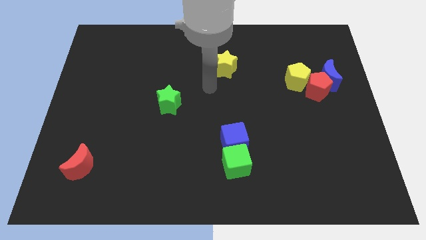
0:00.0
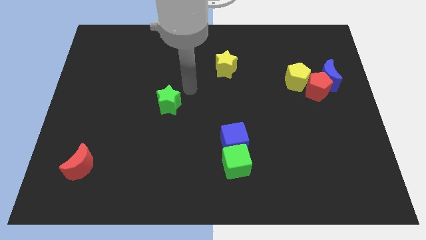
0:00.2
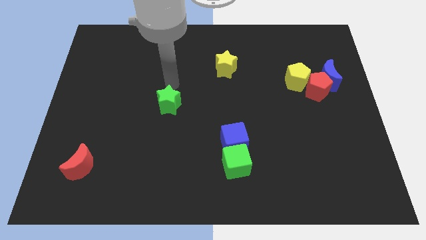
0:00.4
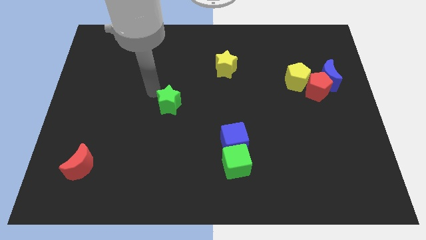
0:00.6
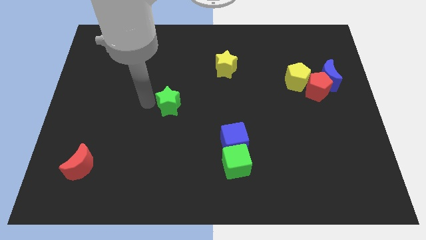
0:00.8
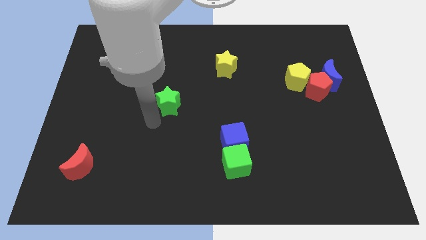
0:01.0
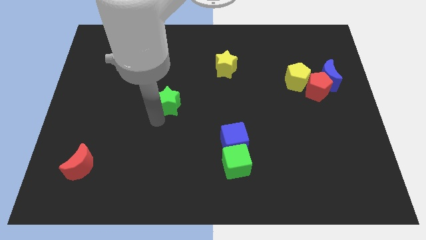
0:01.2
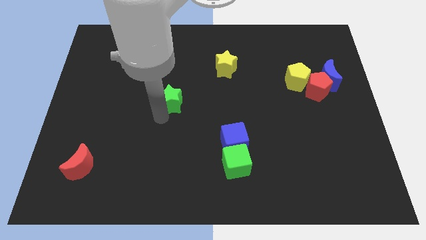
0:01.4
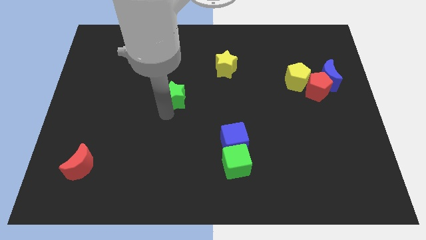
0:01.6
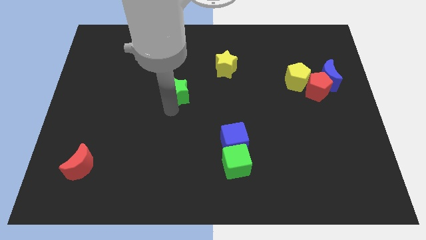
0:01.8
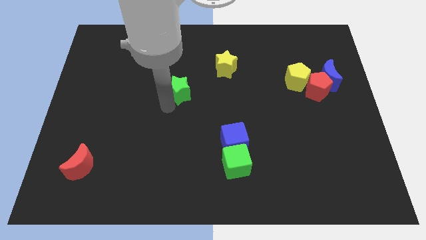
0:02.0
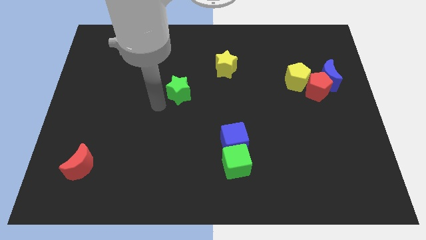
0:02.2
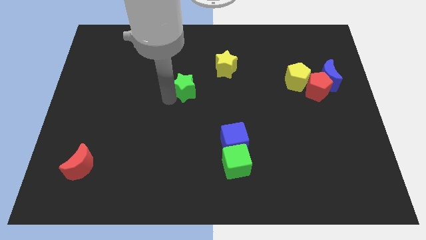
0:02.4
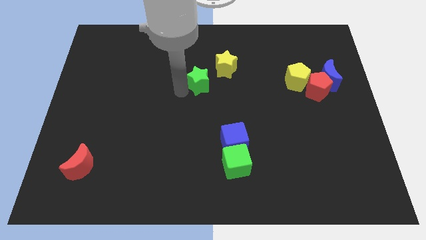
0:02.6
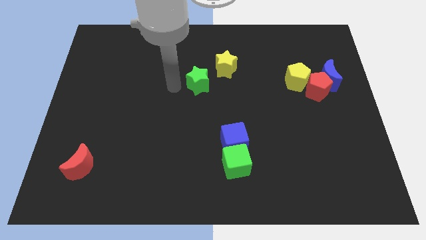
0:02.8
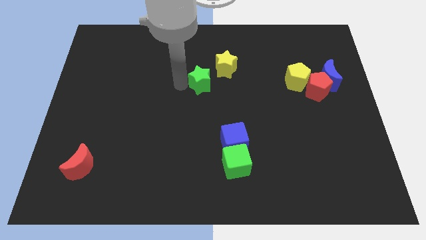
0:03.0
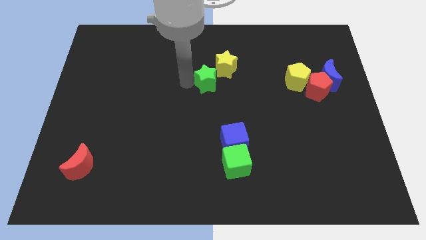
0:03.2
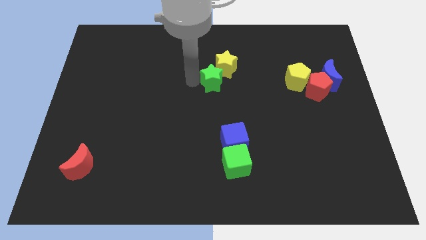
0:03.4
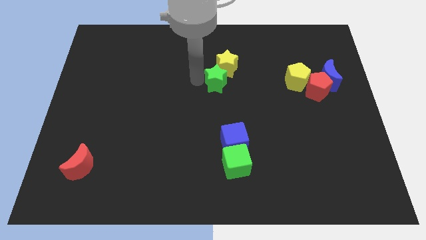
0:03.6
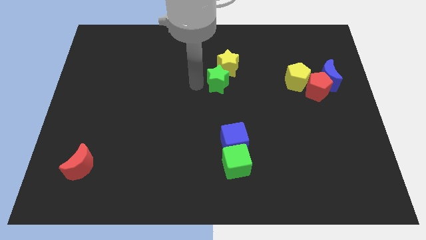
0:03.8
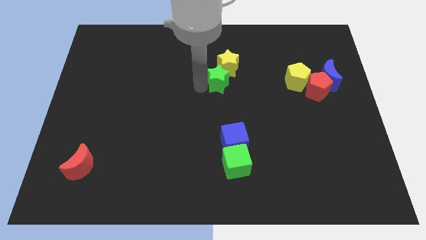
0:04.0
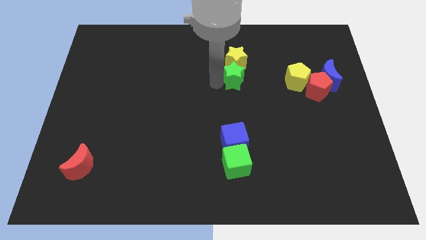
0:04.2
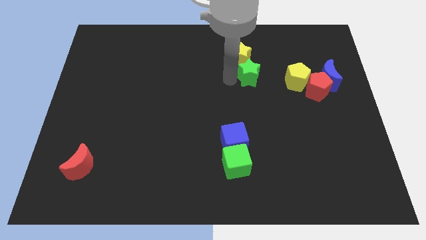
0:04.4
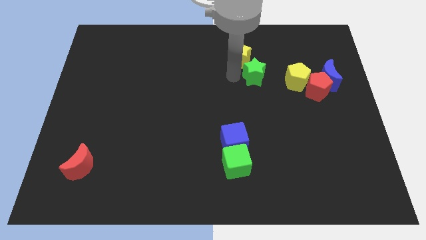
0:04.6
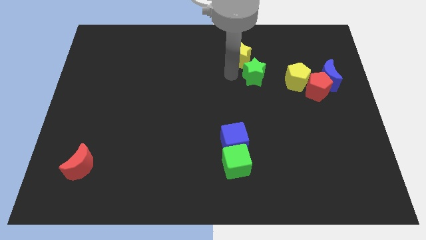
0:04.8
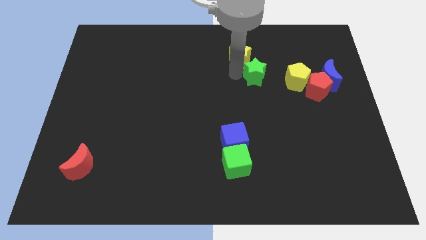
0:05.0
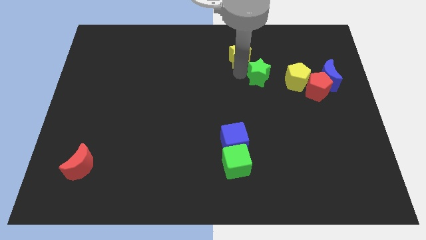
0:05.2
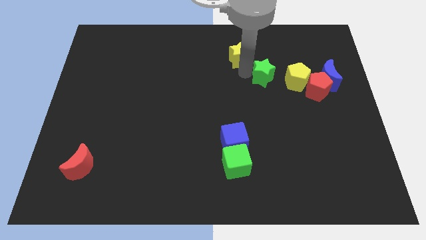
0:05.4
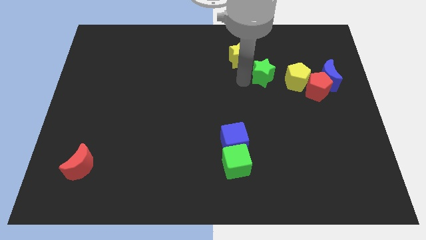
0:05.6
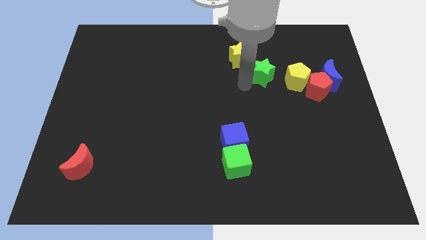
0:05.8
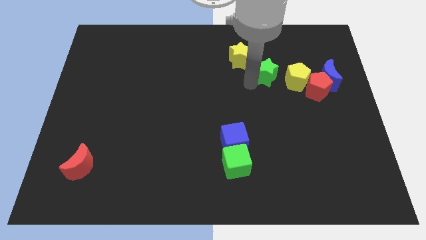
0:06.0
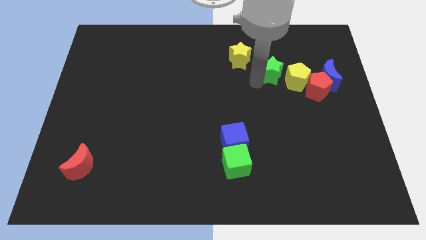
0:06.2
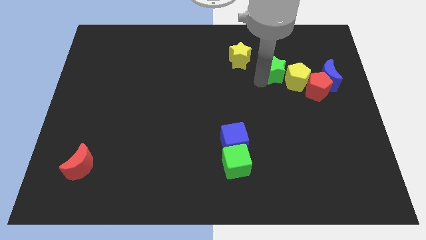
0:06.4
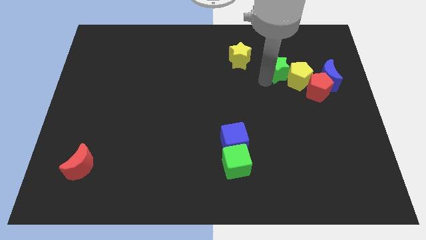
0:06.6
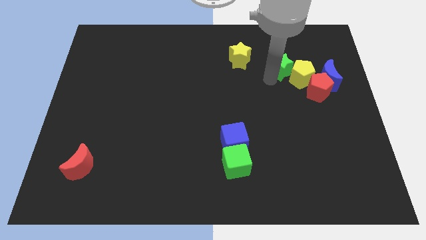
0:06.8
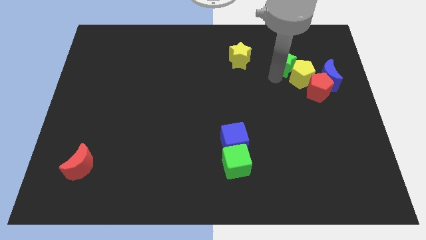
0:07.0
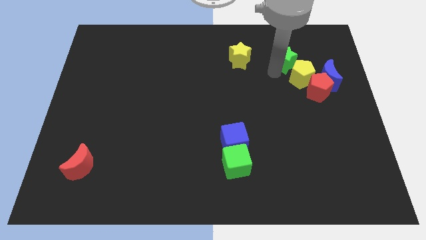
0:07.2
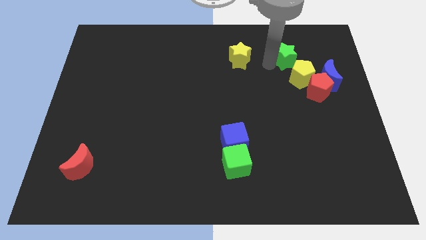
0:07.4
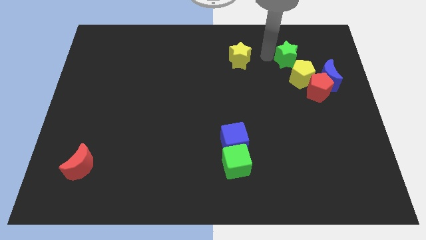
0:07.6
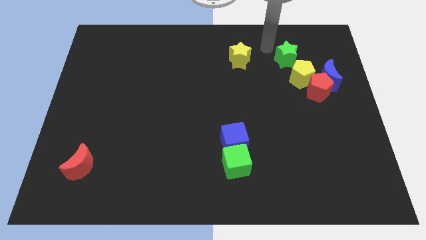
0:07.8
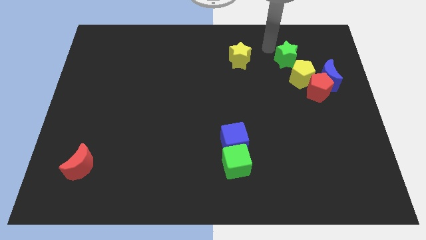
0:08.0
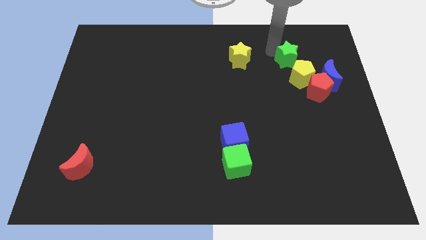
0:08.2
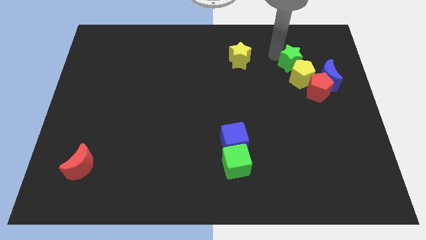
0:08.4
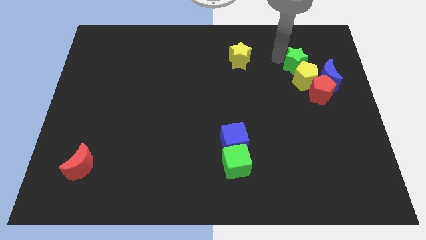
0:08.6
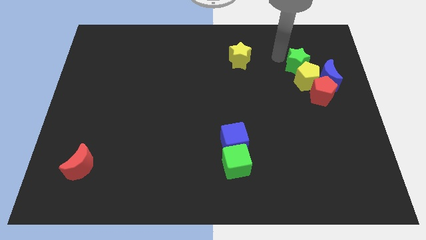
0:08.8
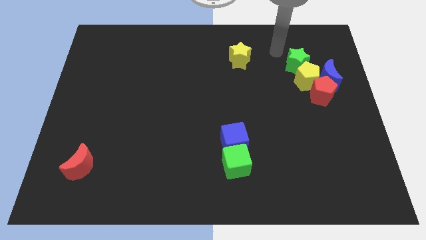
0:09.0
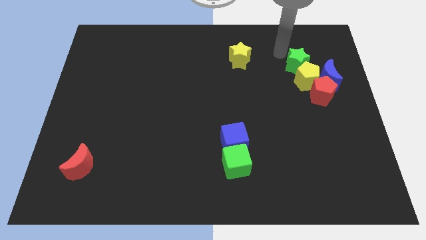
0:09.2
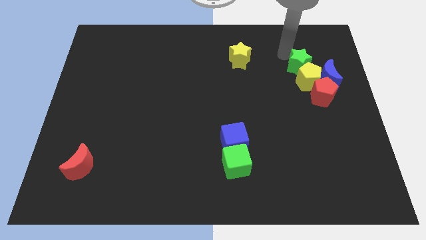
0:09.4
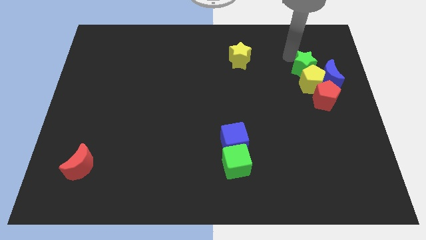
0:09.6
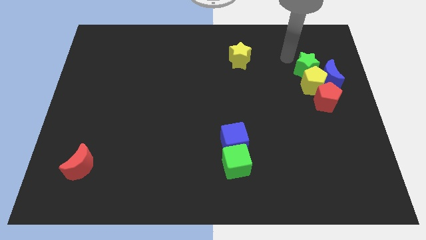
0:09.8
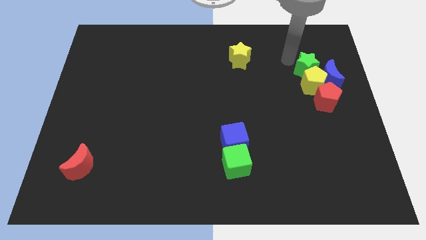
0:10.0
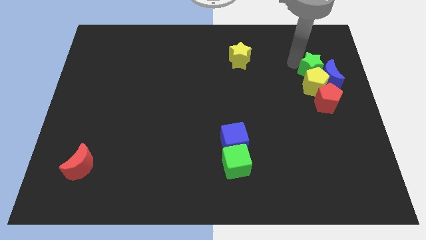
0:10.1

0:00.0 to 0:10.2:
move the green star next to the blue moon

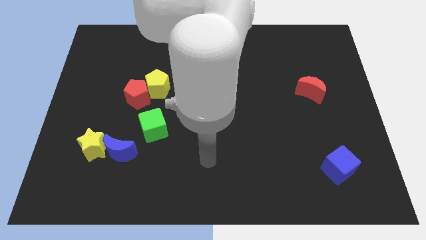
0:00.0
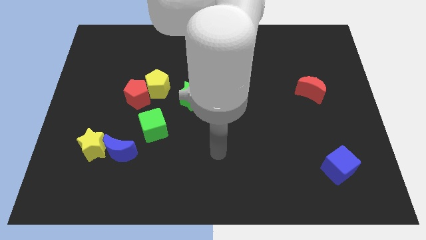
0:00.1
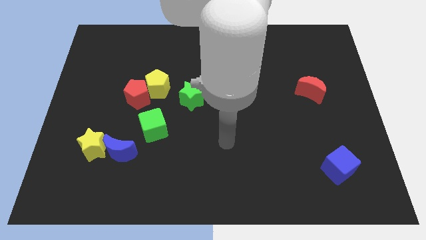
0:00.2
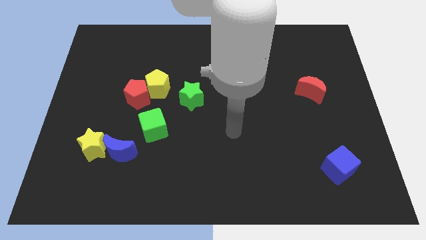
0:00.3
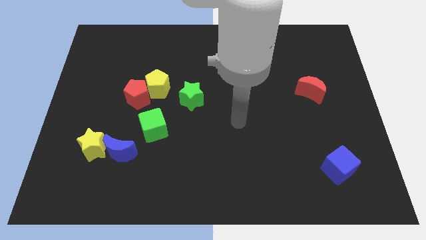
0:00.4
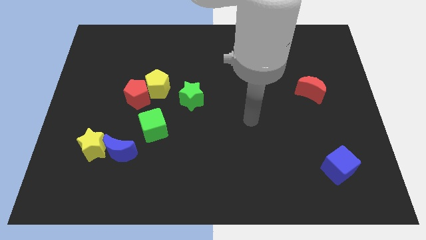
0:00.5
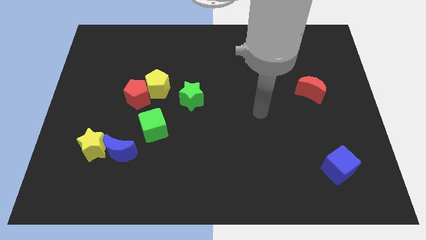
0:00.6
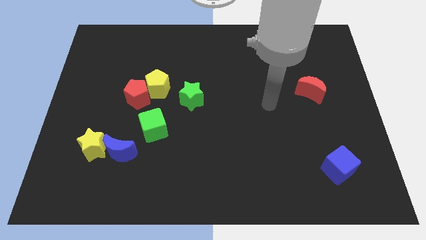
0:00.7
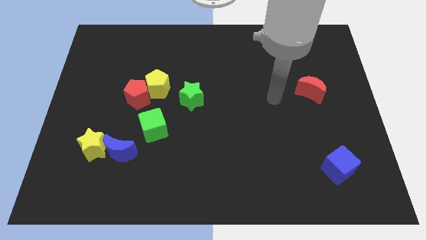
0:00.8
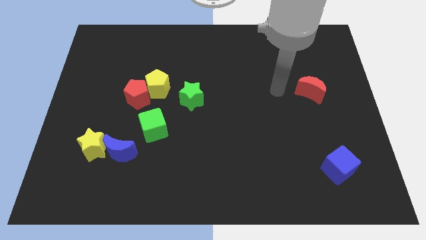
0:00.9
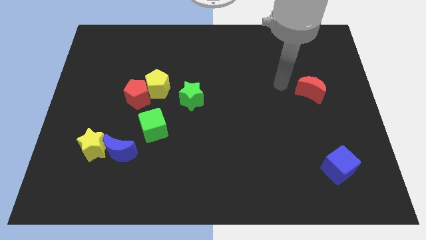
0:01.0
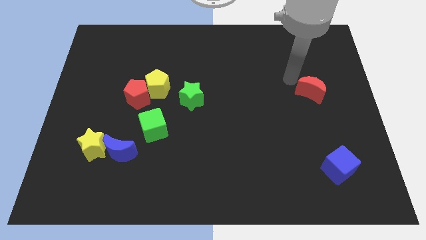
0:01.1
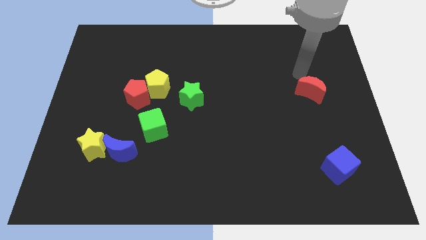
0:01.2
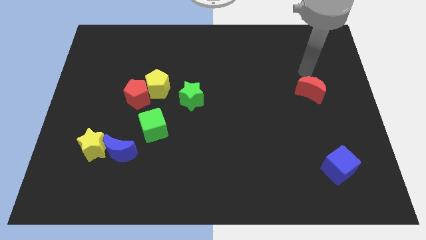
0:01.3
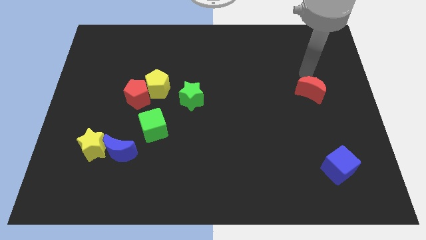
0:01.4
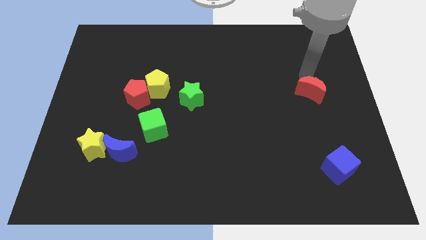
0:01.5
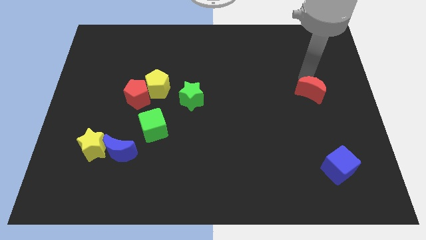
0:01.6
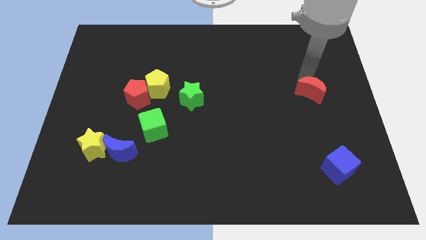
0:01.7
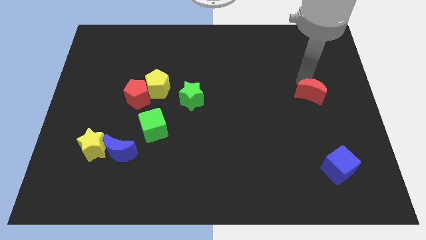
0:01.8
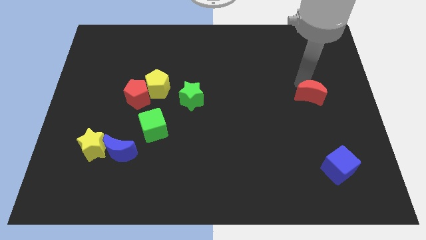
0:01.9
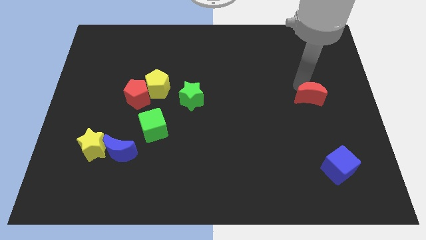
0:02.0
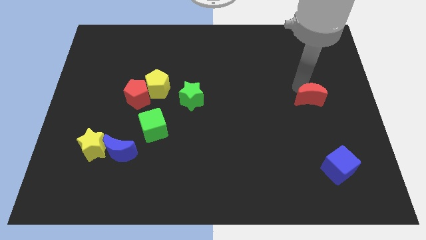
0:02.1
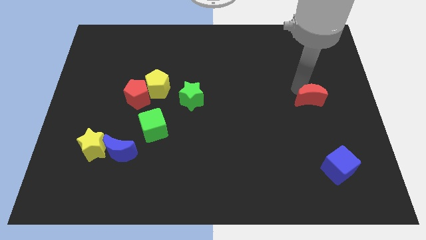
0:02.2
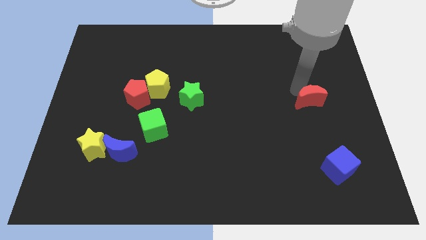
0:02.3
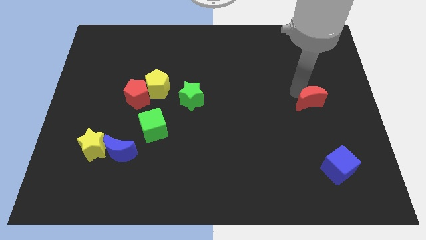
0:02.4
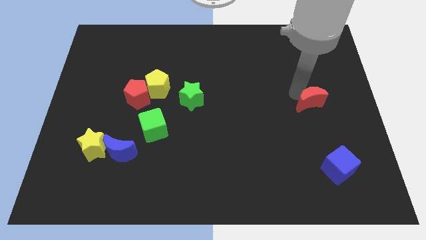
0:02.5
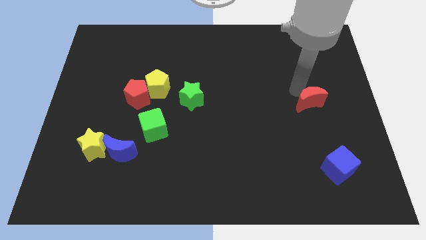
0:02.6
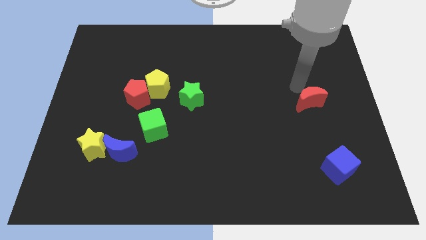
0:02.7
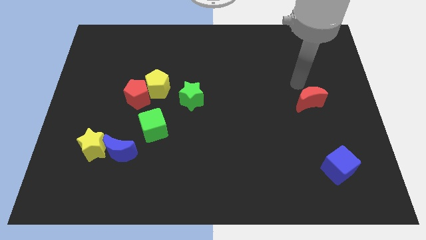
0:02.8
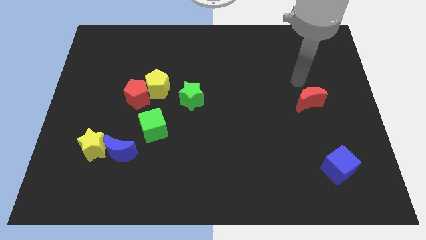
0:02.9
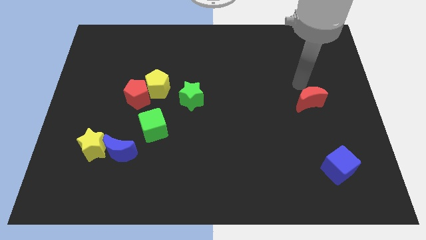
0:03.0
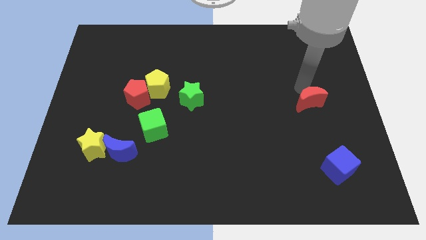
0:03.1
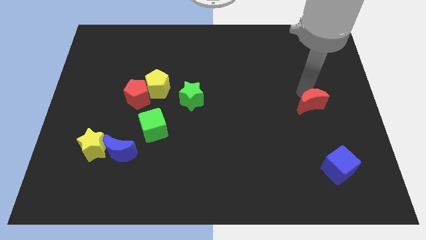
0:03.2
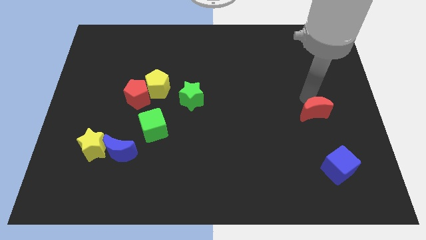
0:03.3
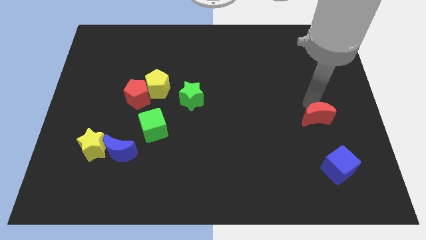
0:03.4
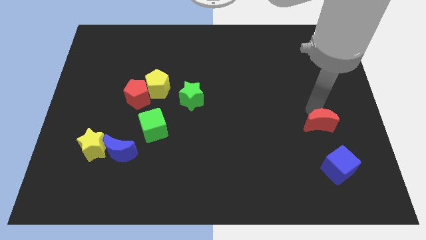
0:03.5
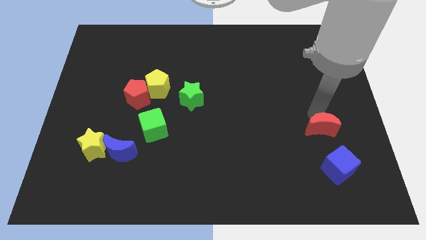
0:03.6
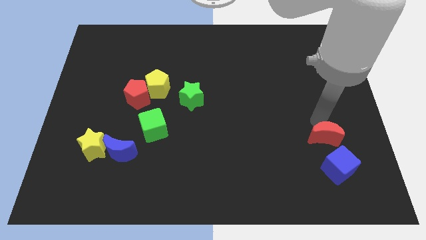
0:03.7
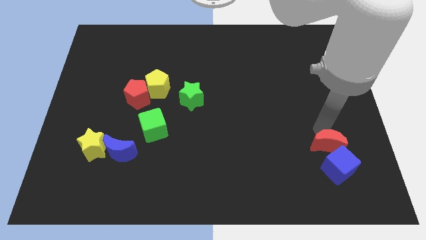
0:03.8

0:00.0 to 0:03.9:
put the red moon towards the blue cube
